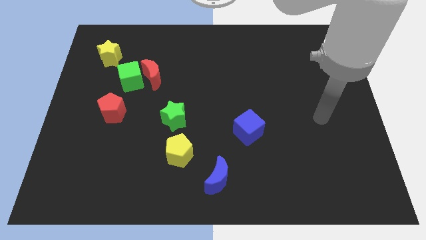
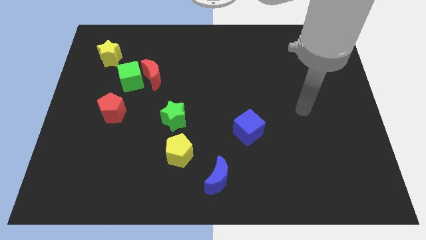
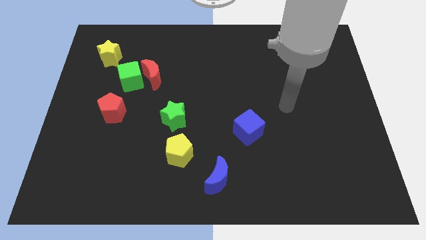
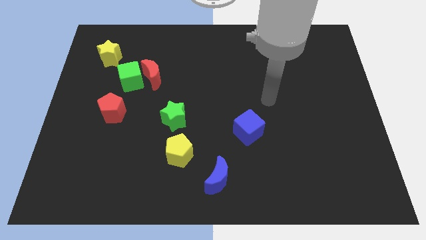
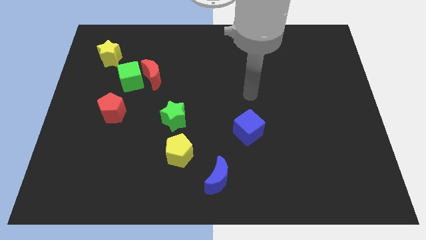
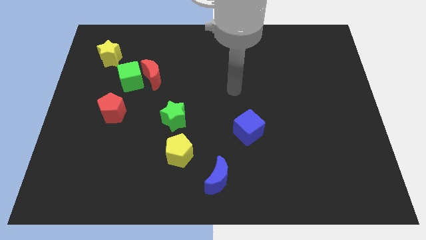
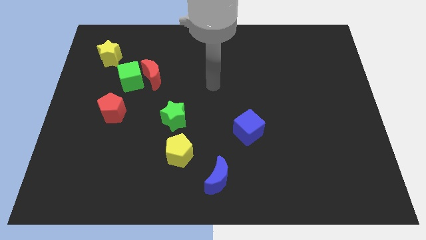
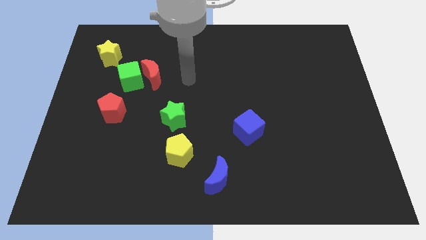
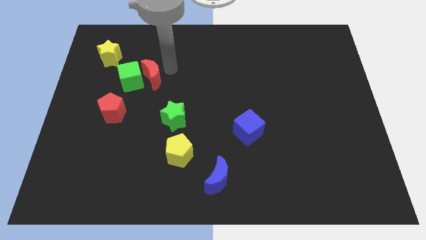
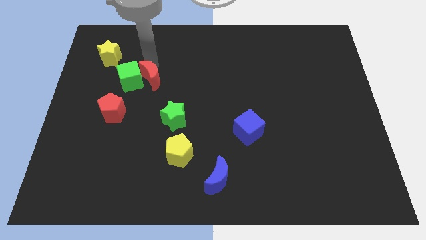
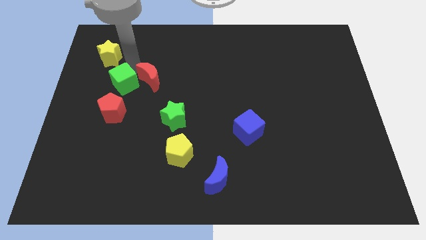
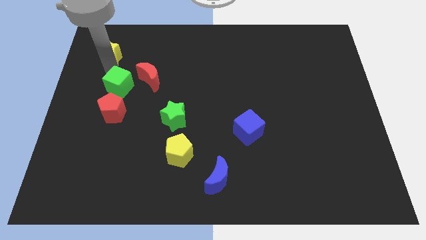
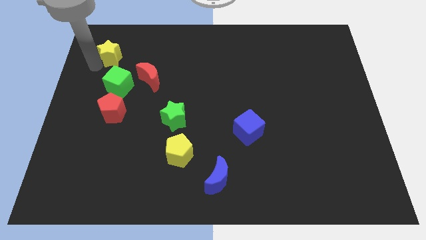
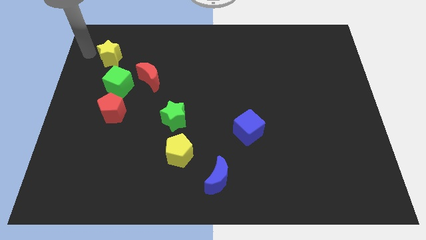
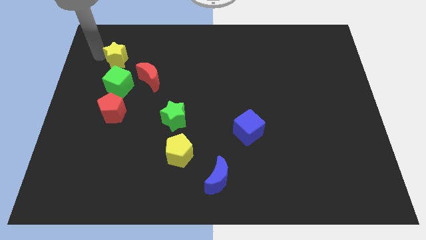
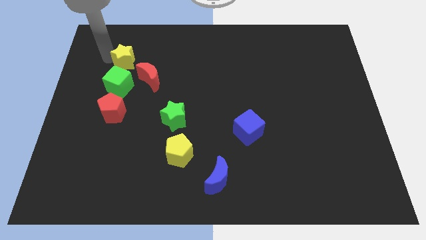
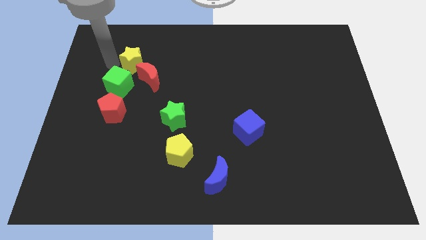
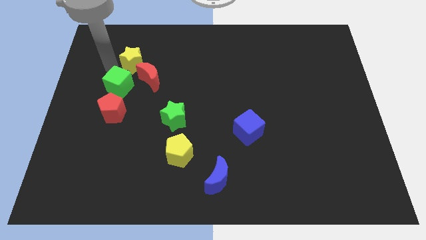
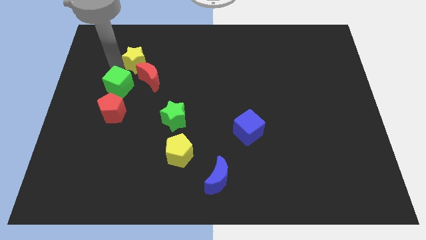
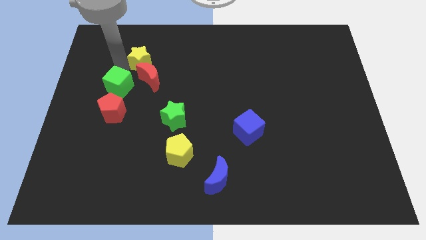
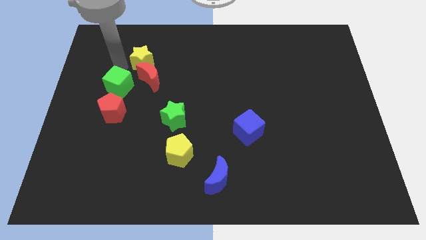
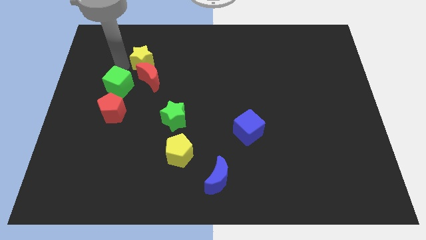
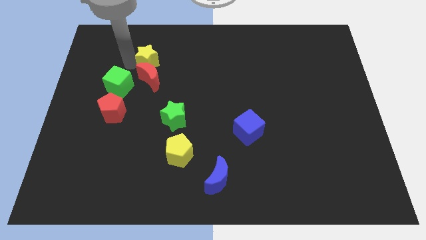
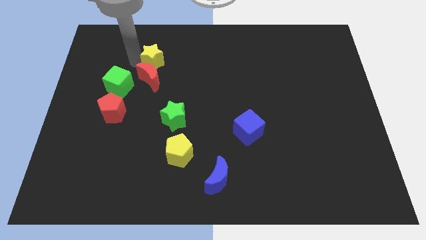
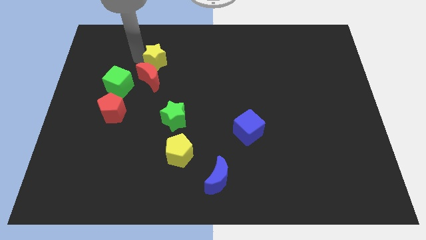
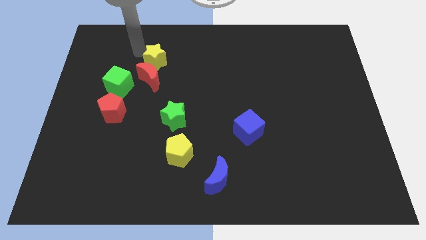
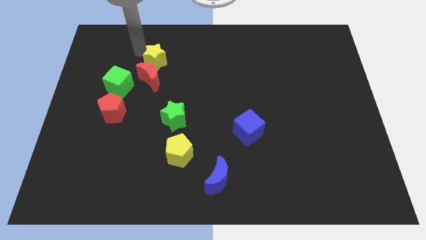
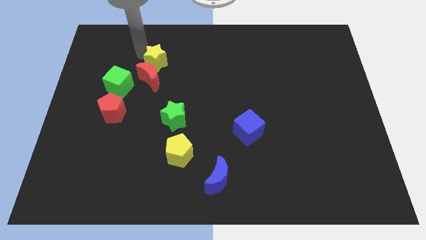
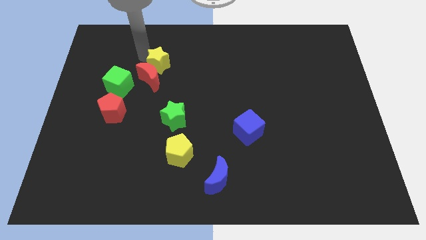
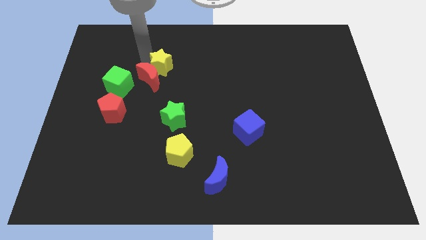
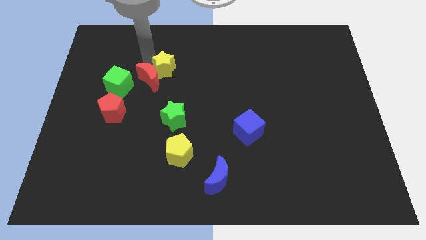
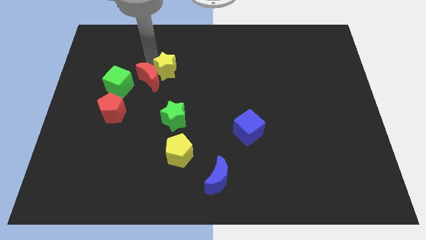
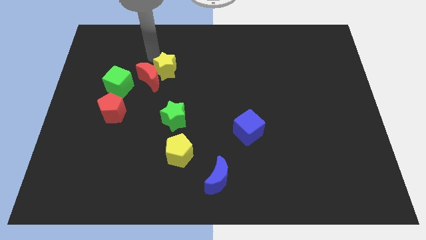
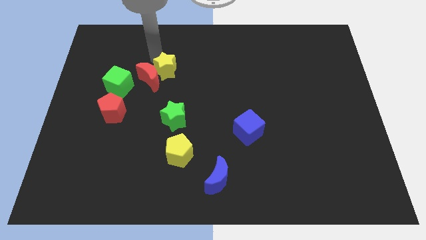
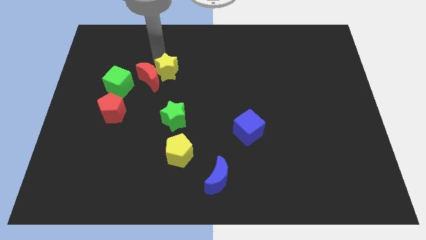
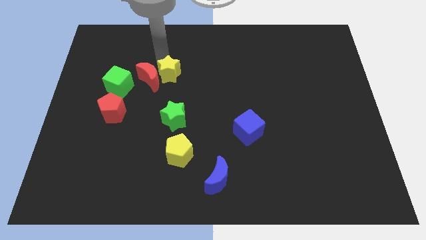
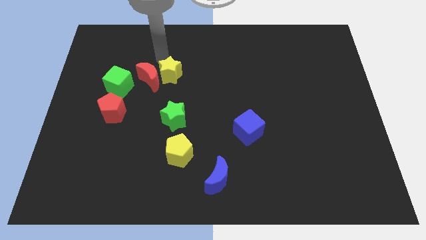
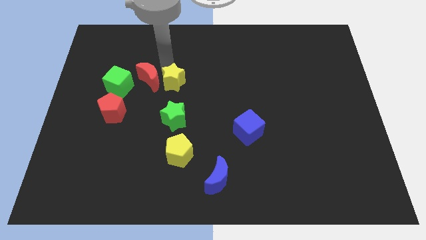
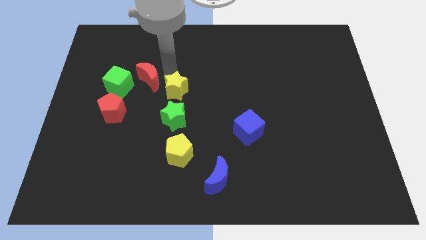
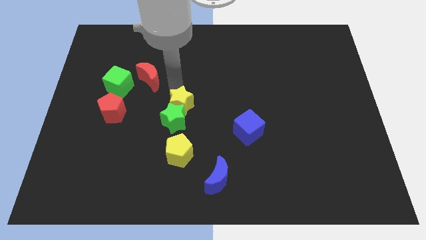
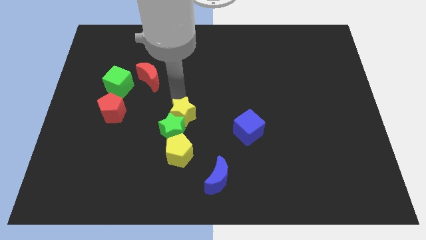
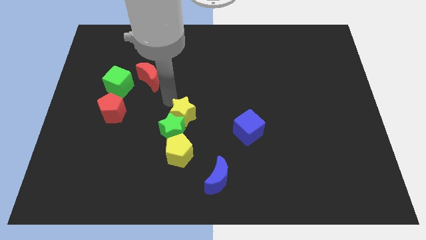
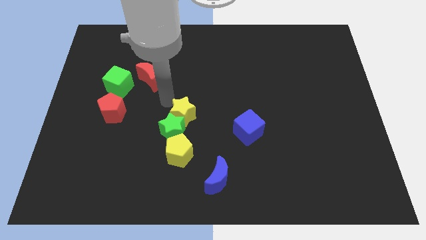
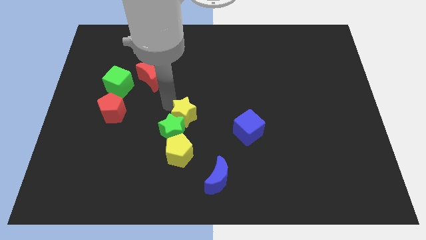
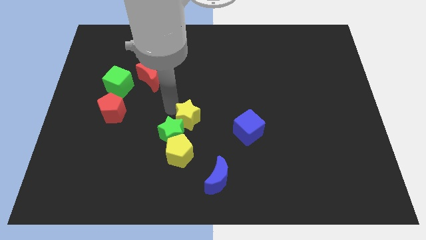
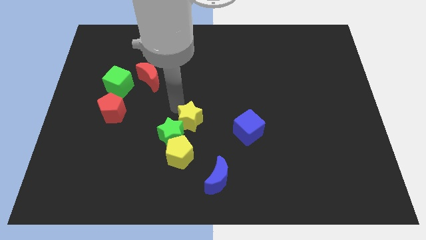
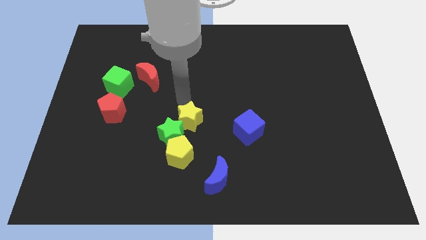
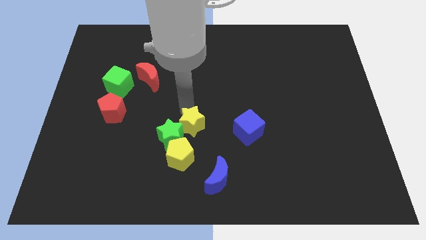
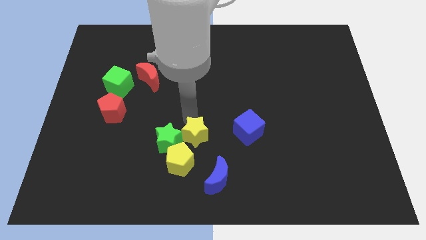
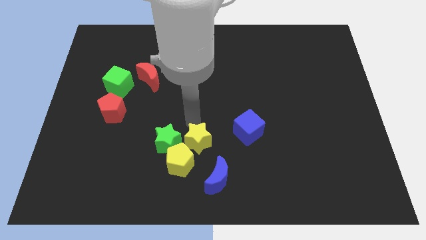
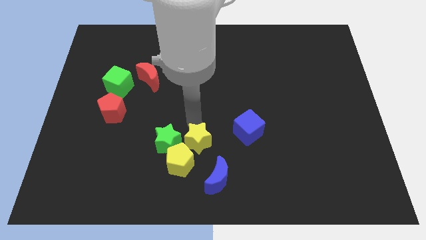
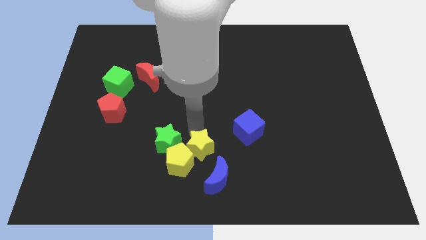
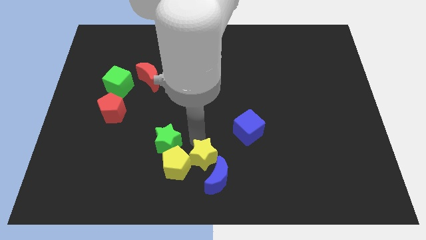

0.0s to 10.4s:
put the yellow star close to the blue moon

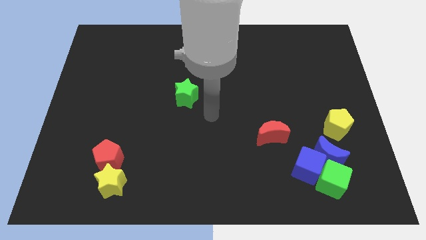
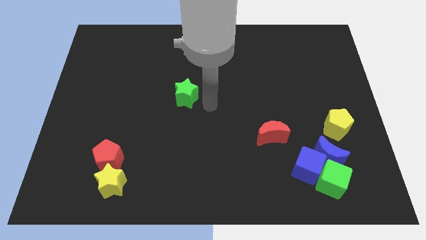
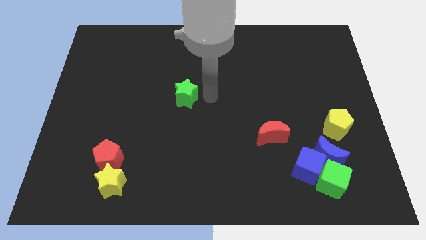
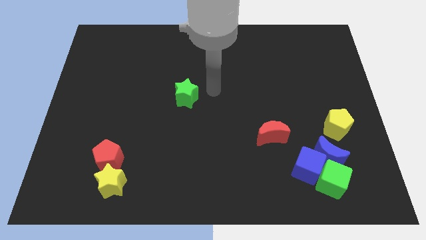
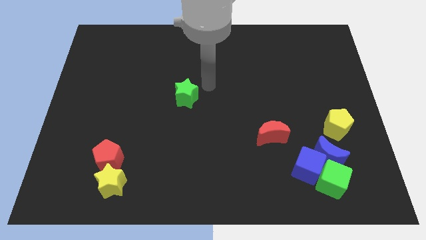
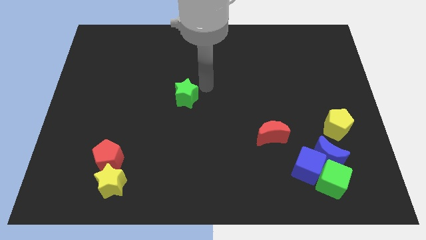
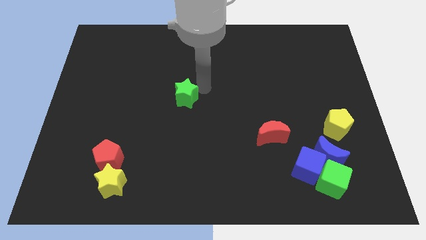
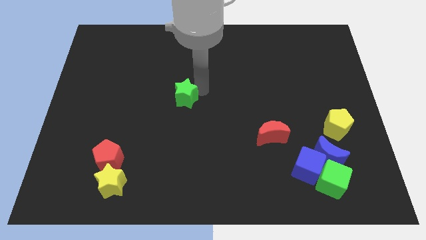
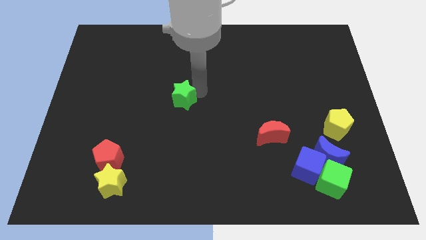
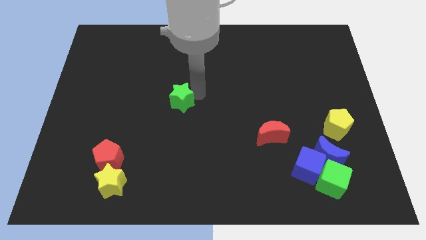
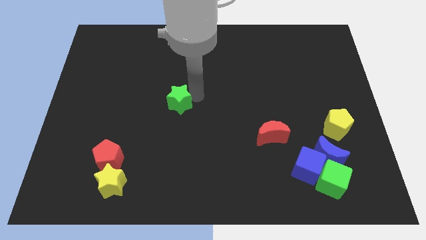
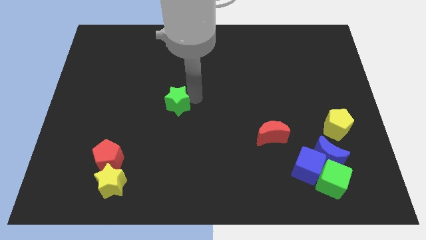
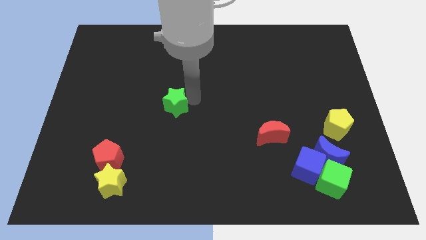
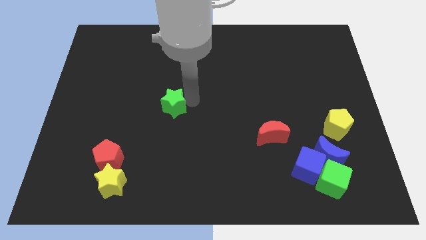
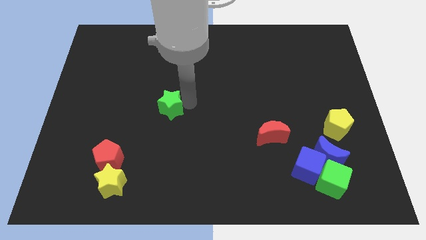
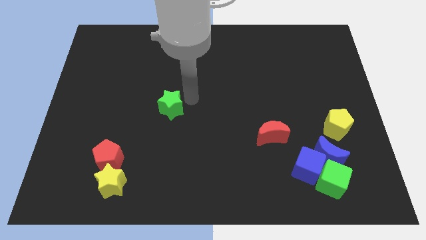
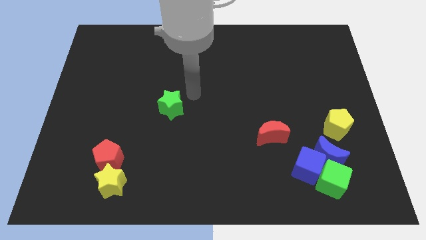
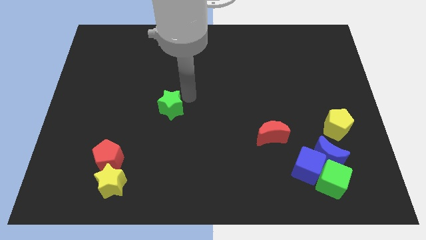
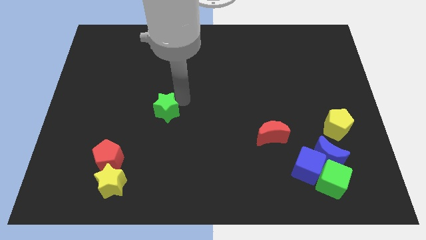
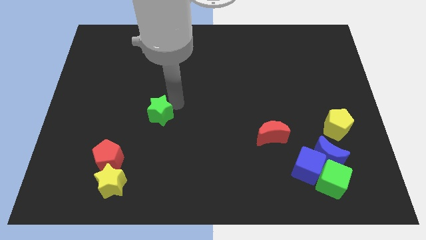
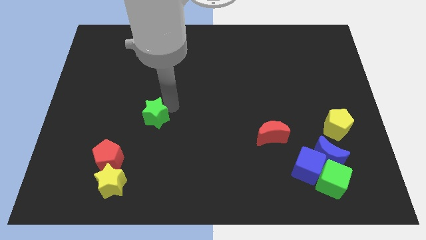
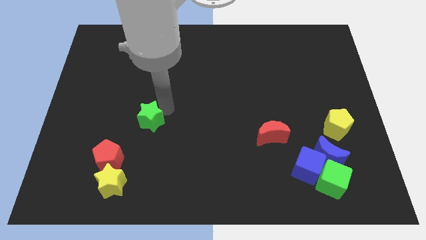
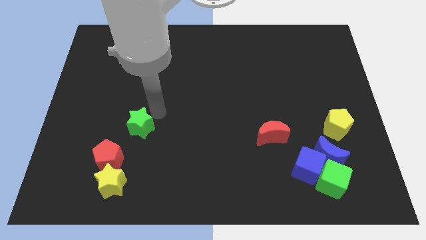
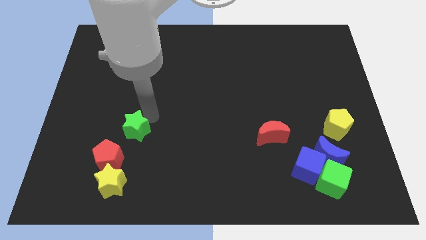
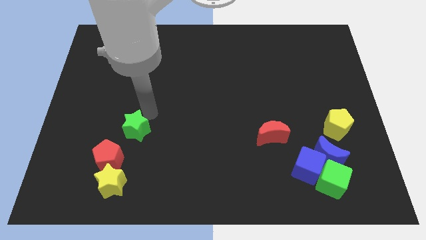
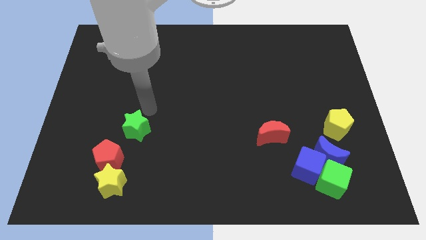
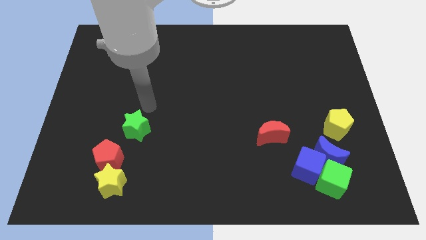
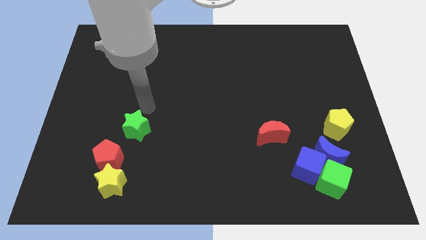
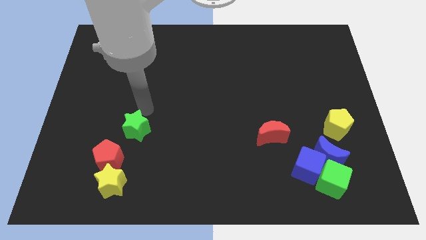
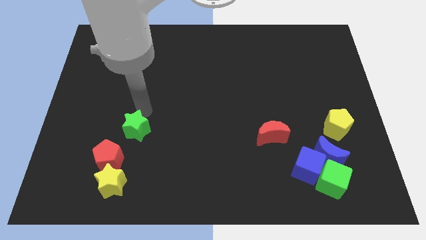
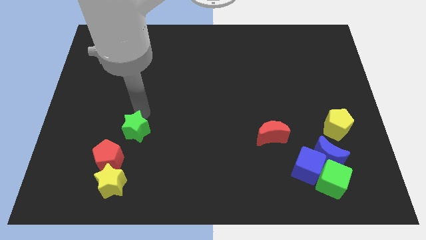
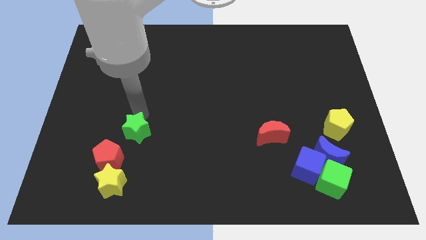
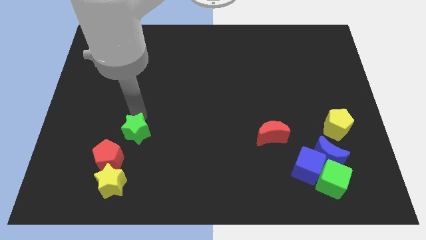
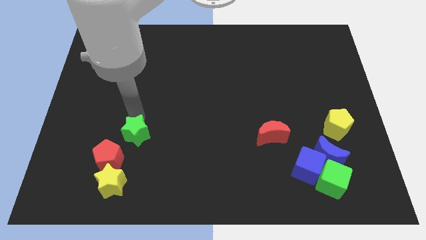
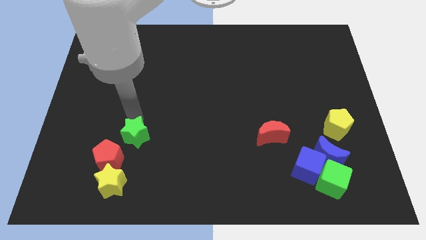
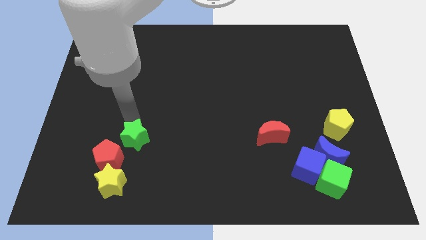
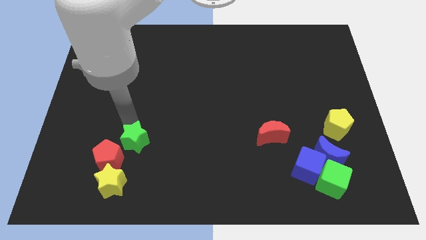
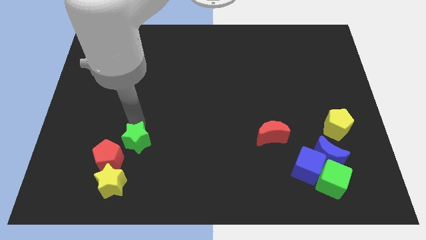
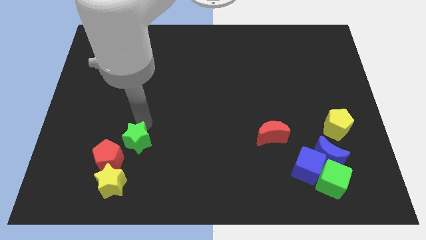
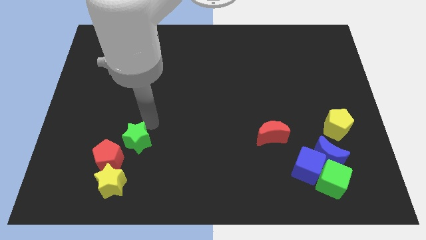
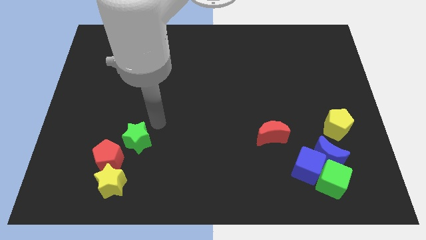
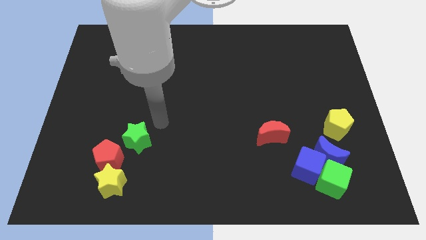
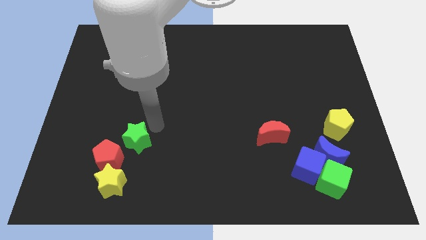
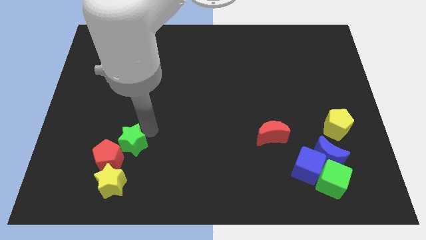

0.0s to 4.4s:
move the green star to the red pentagon
